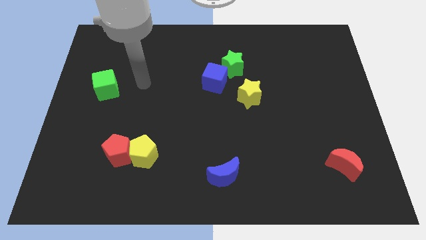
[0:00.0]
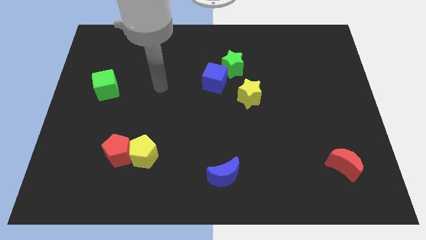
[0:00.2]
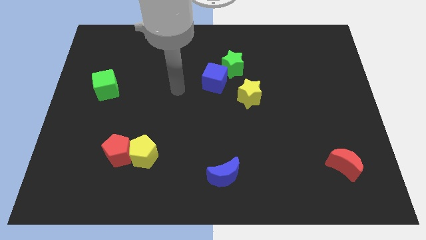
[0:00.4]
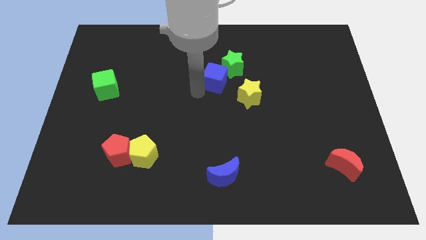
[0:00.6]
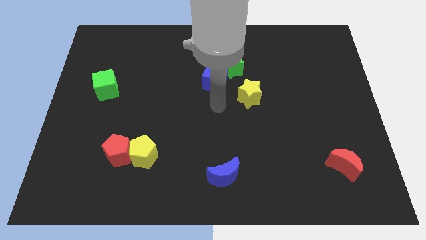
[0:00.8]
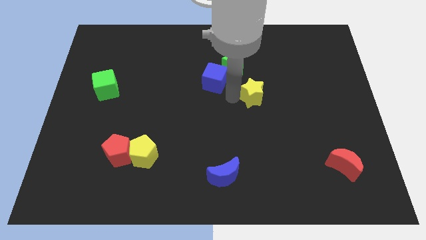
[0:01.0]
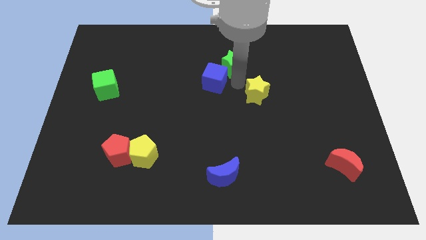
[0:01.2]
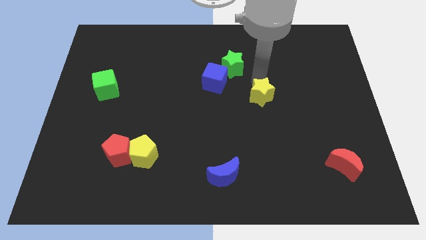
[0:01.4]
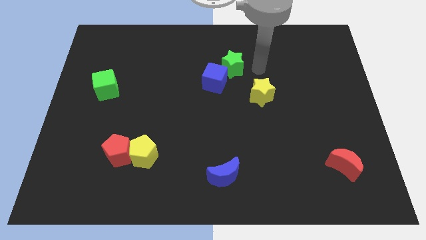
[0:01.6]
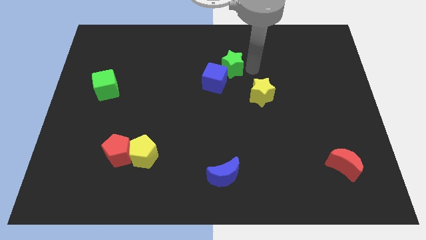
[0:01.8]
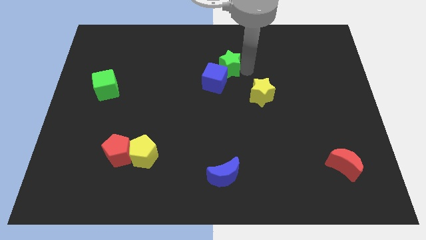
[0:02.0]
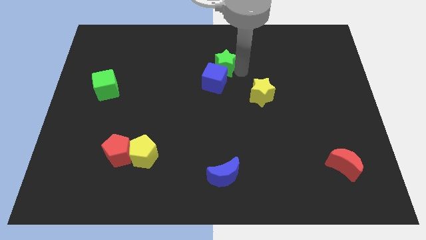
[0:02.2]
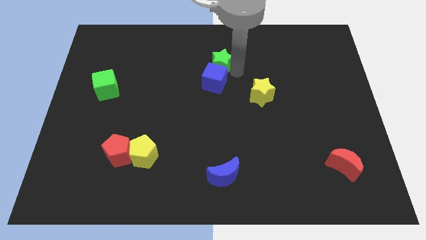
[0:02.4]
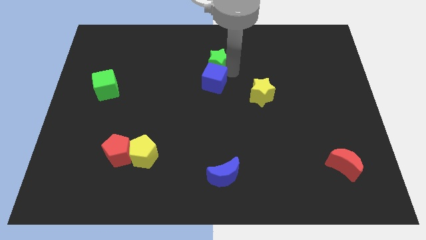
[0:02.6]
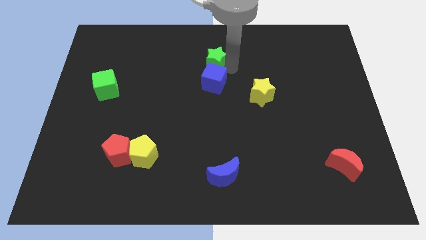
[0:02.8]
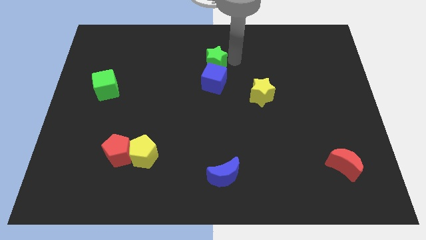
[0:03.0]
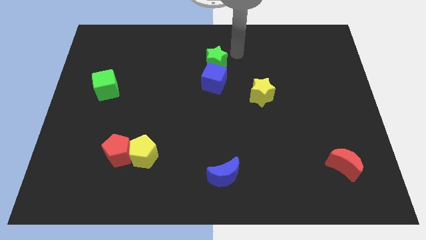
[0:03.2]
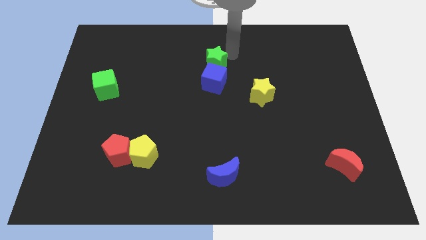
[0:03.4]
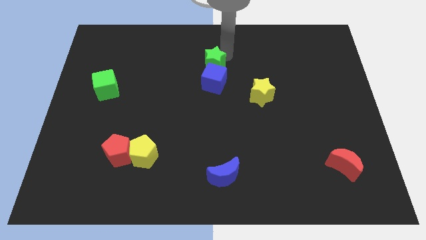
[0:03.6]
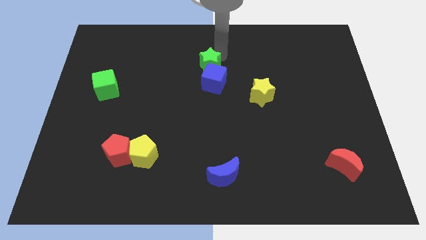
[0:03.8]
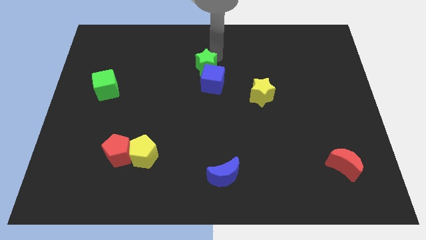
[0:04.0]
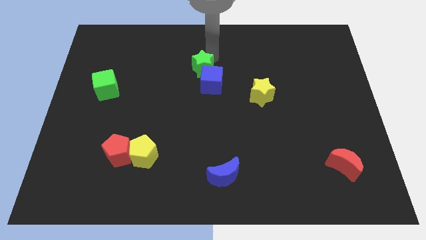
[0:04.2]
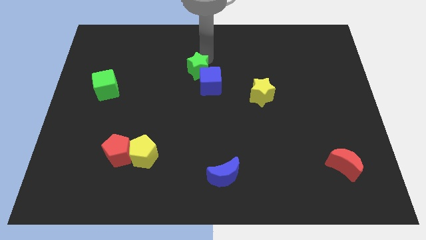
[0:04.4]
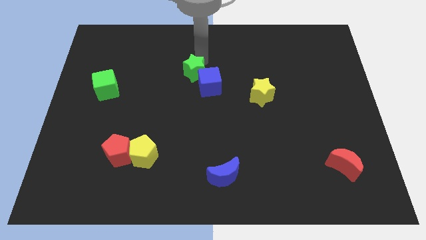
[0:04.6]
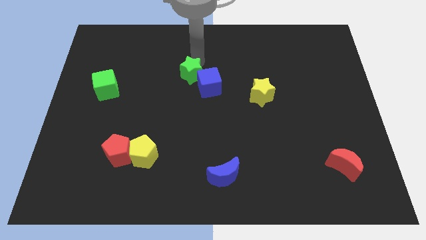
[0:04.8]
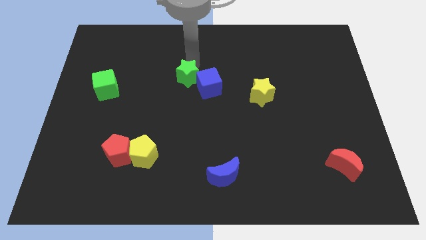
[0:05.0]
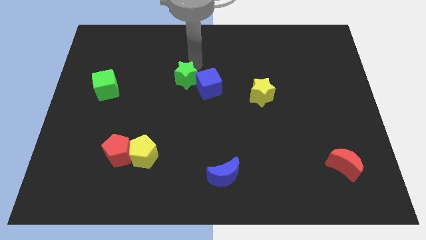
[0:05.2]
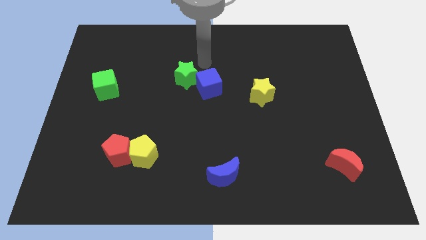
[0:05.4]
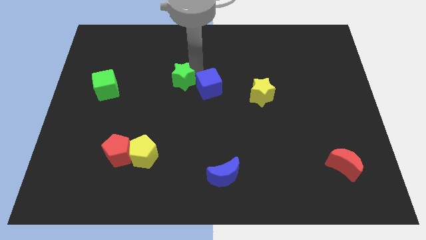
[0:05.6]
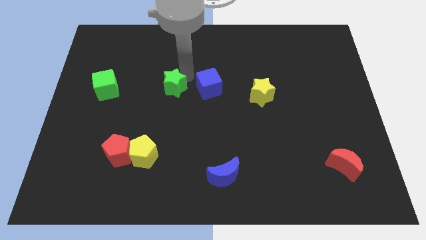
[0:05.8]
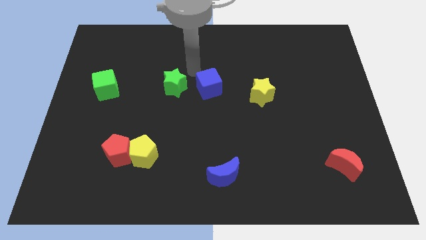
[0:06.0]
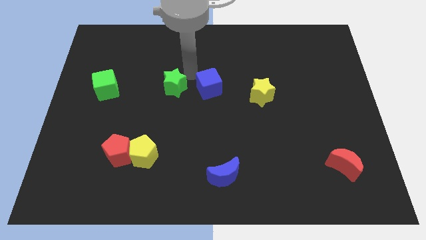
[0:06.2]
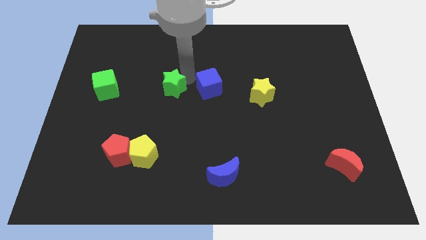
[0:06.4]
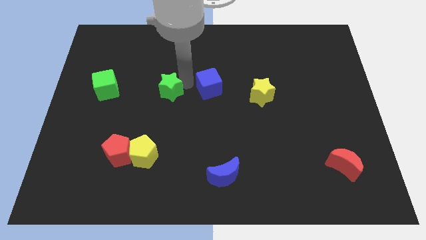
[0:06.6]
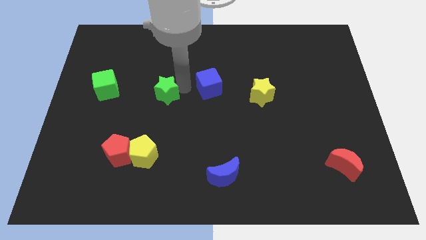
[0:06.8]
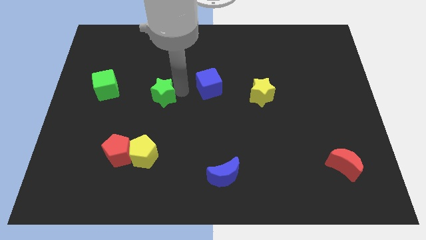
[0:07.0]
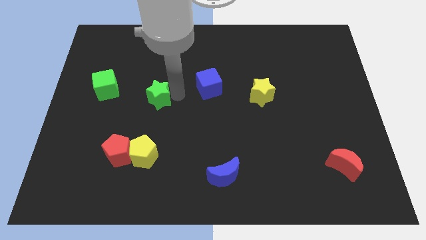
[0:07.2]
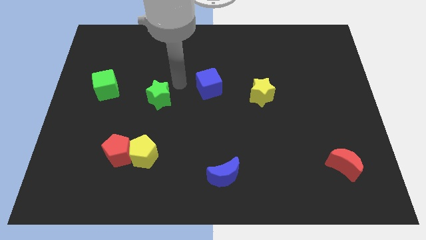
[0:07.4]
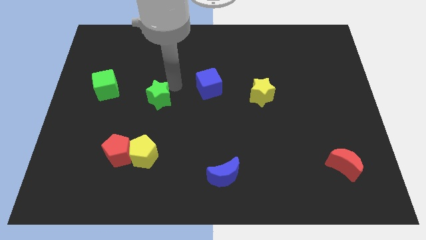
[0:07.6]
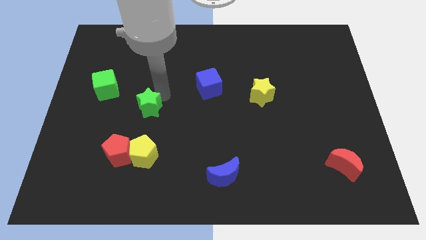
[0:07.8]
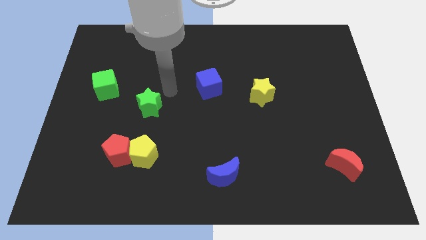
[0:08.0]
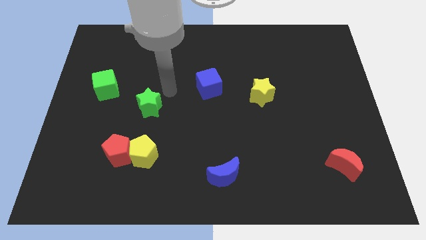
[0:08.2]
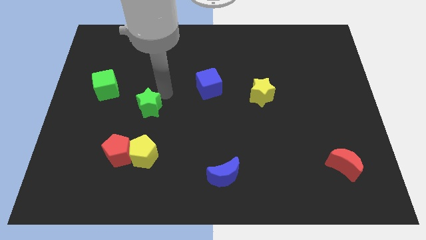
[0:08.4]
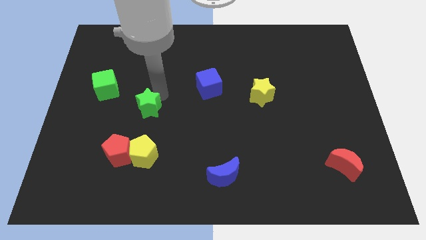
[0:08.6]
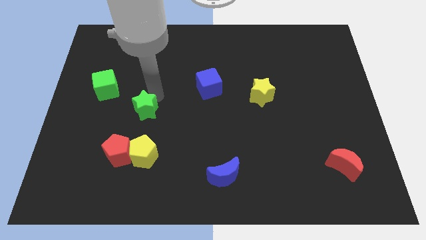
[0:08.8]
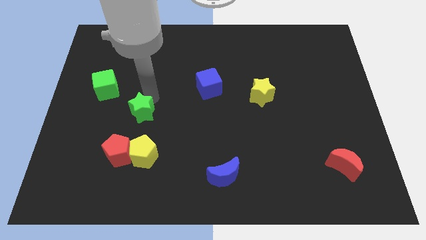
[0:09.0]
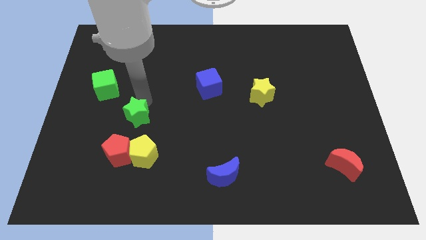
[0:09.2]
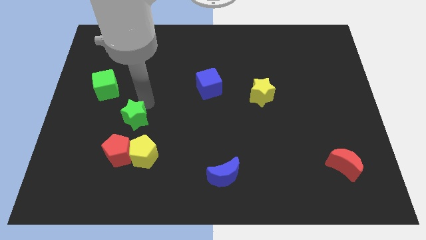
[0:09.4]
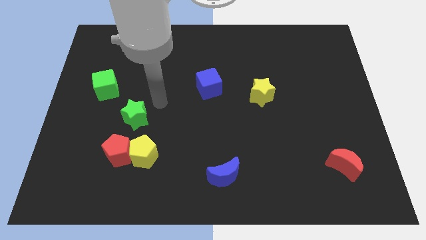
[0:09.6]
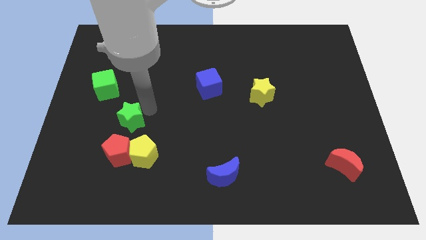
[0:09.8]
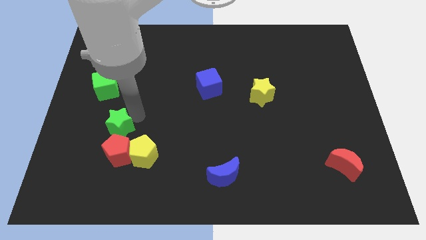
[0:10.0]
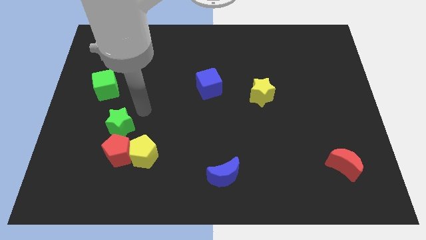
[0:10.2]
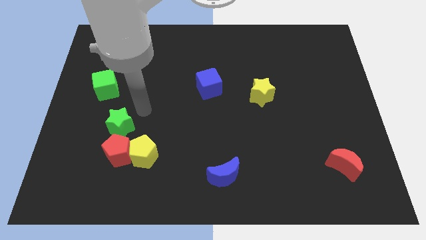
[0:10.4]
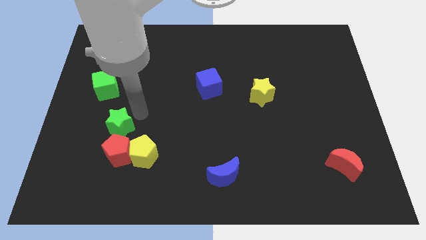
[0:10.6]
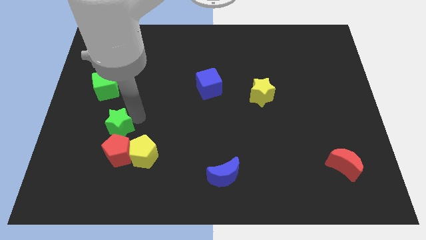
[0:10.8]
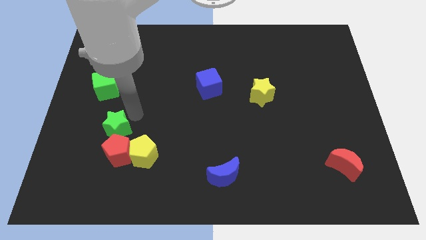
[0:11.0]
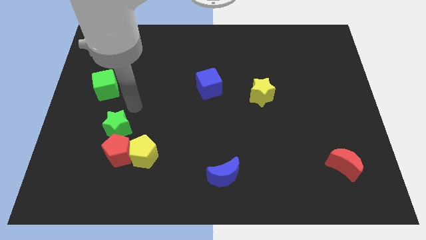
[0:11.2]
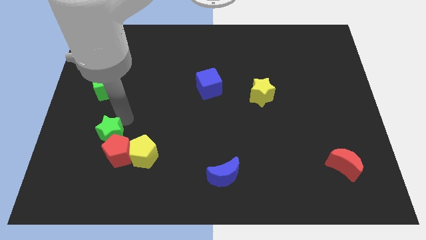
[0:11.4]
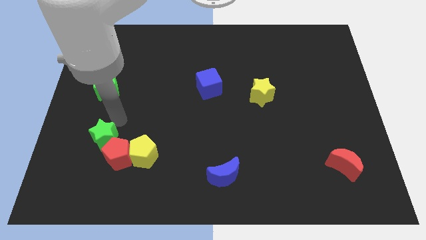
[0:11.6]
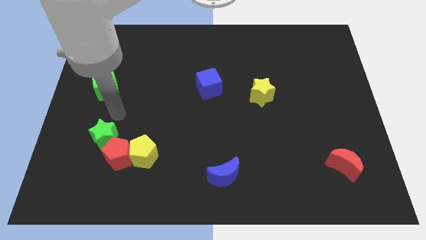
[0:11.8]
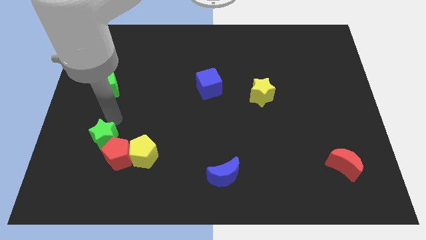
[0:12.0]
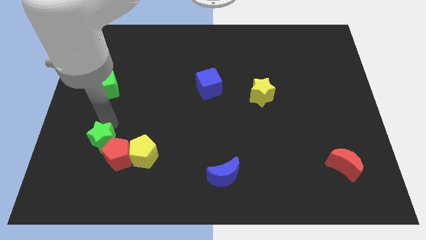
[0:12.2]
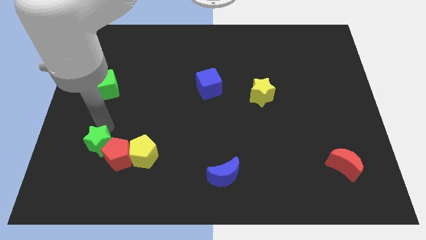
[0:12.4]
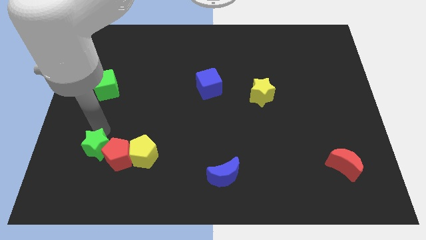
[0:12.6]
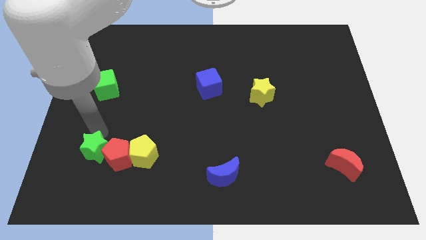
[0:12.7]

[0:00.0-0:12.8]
put the green star to the bottom left of the red pentagon

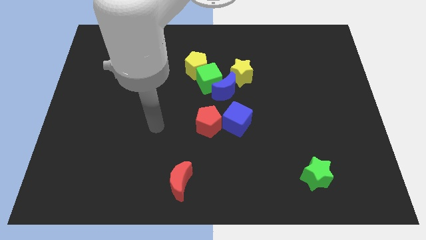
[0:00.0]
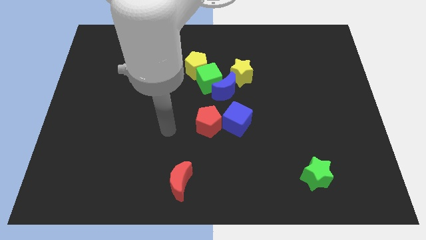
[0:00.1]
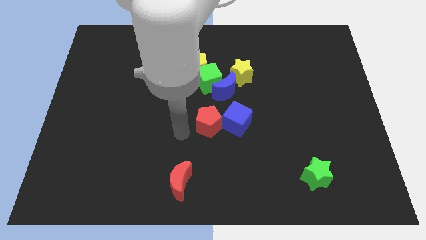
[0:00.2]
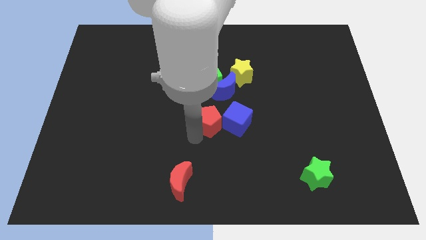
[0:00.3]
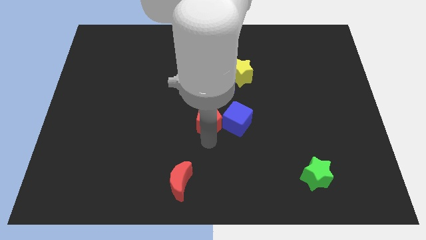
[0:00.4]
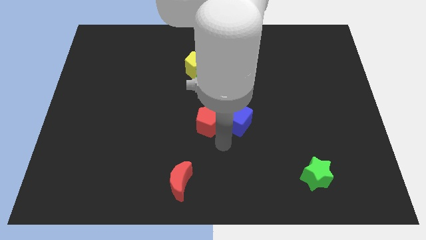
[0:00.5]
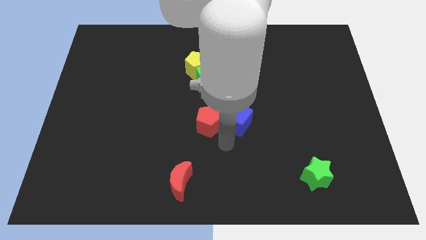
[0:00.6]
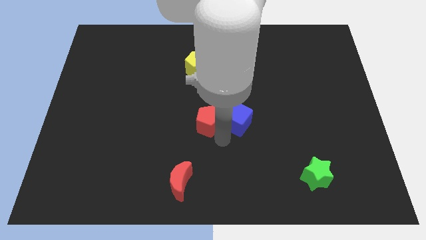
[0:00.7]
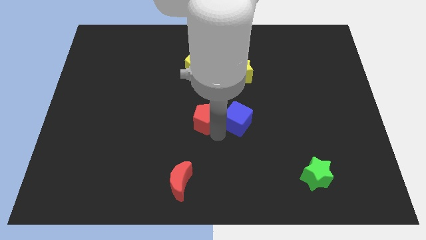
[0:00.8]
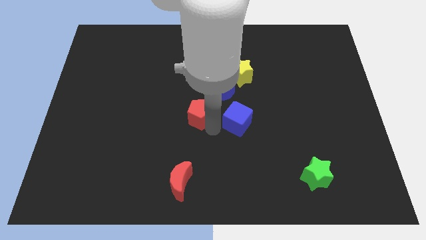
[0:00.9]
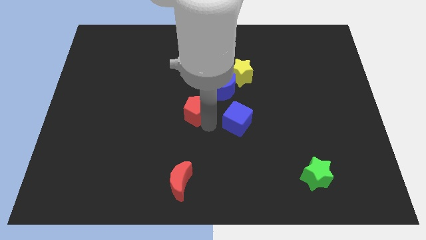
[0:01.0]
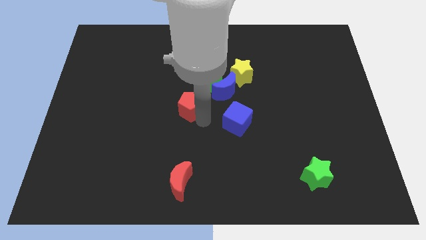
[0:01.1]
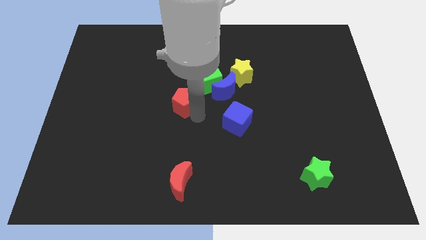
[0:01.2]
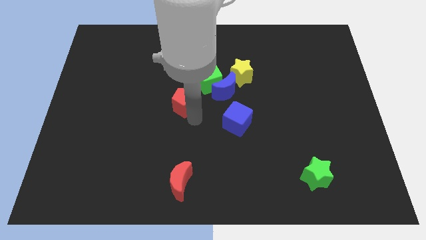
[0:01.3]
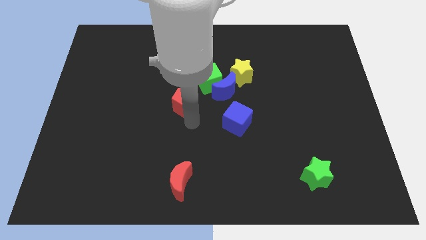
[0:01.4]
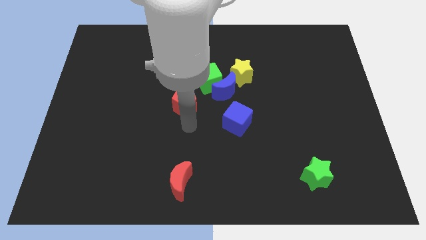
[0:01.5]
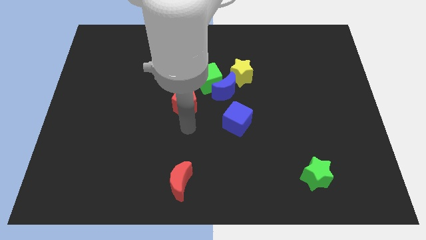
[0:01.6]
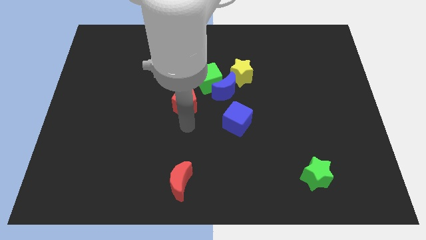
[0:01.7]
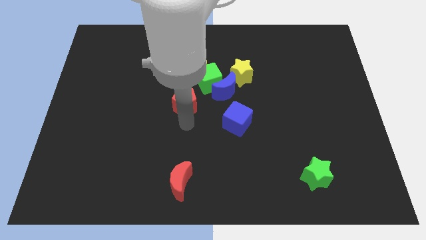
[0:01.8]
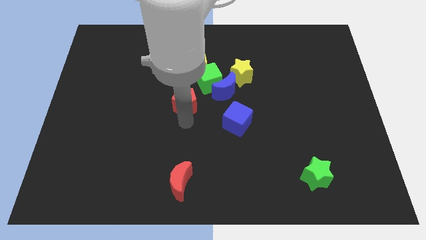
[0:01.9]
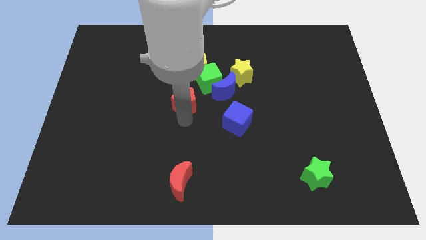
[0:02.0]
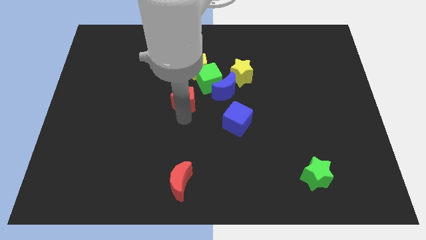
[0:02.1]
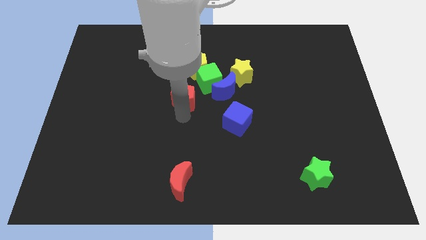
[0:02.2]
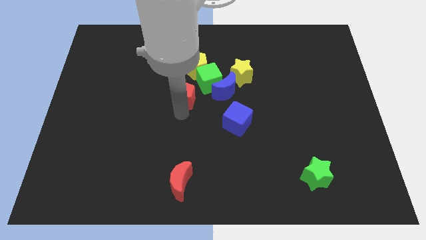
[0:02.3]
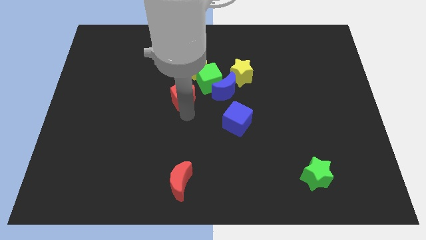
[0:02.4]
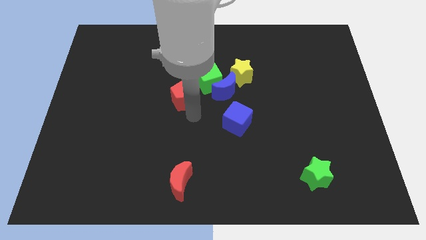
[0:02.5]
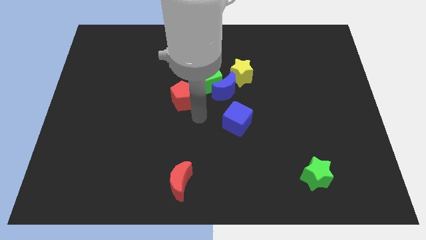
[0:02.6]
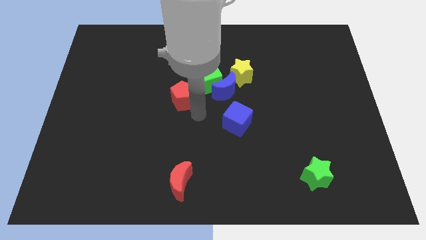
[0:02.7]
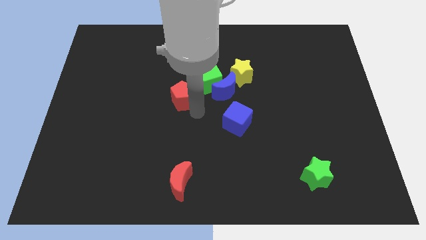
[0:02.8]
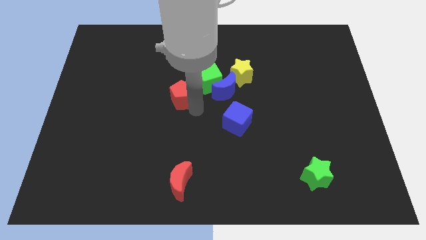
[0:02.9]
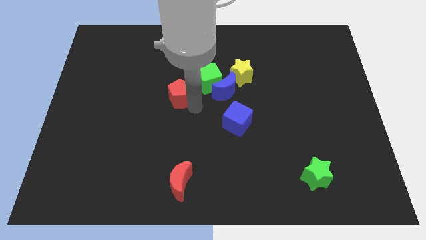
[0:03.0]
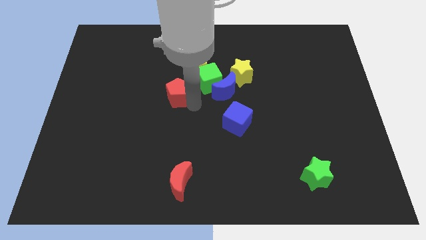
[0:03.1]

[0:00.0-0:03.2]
slide the red pentagon to the left side of the green cube
